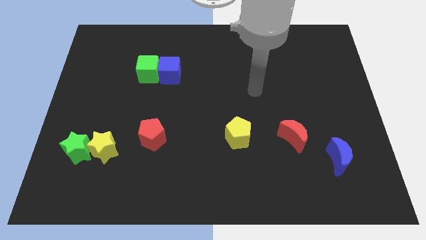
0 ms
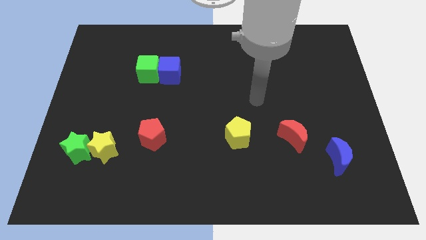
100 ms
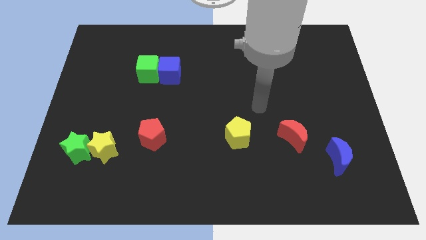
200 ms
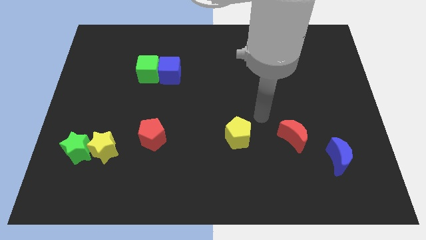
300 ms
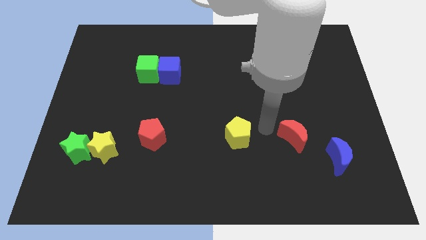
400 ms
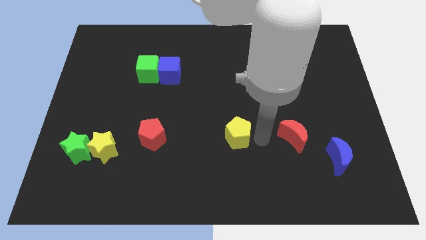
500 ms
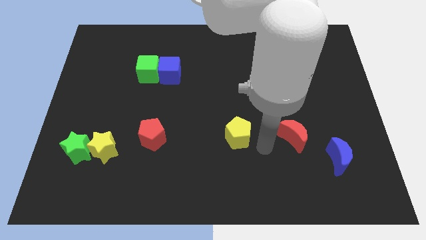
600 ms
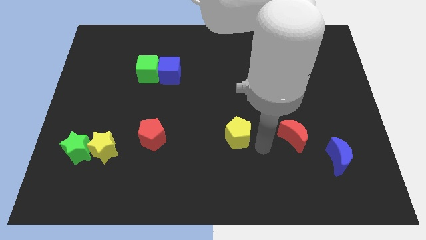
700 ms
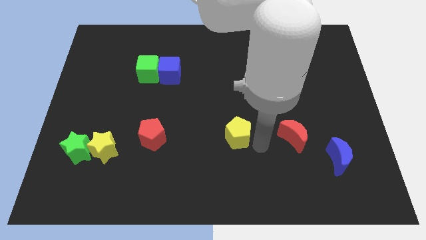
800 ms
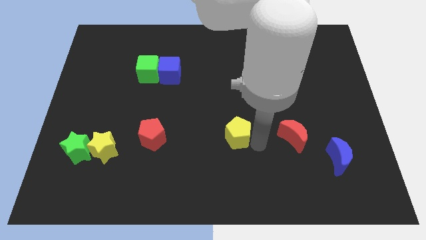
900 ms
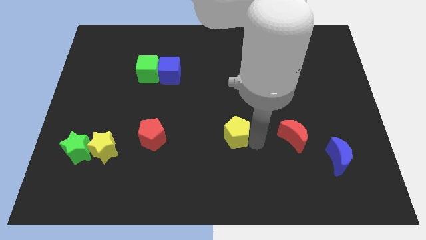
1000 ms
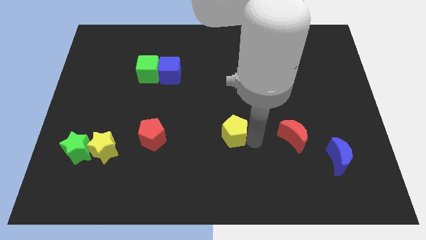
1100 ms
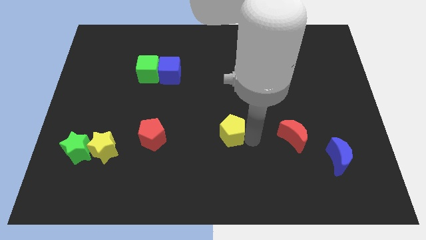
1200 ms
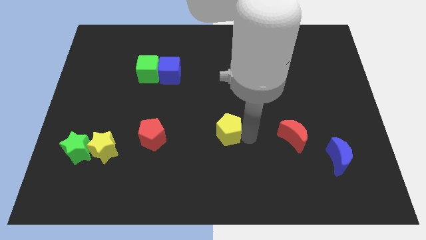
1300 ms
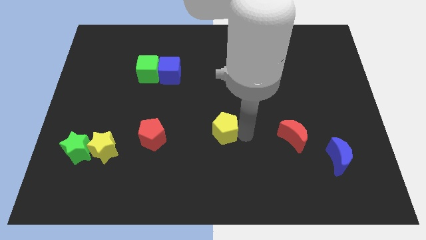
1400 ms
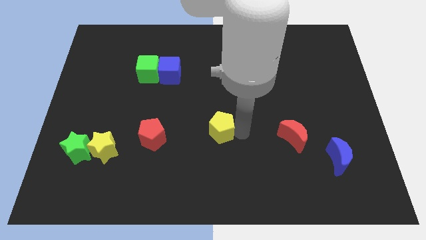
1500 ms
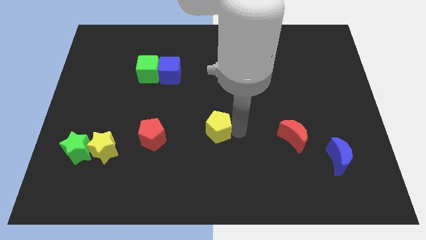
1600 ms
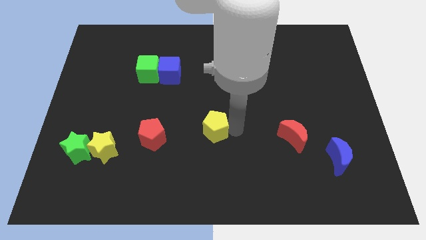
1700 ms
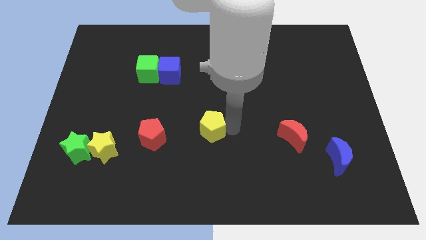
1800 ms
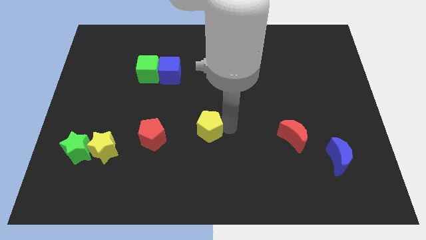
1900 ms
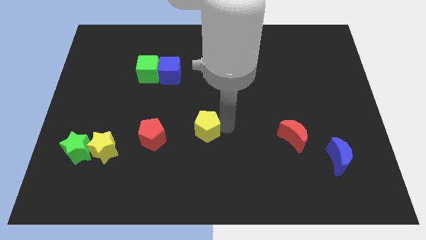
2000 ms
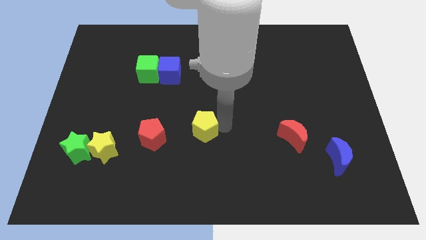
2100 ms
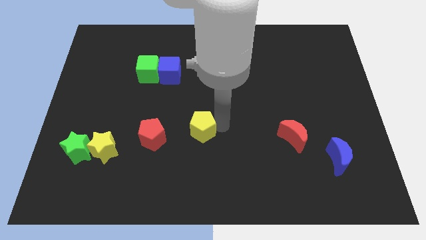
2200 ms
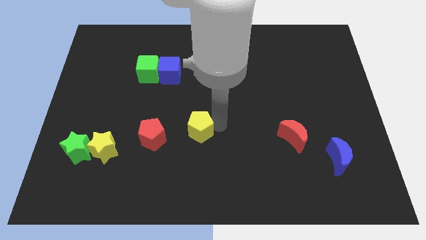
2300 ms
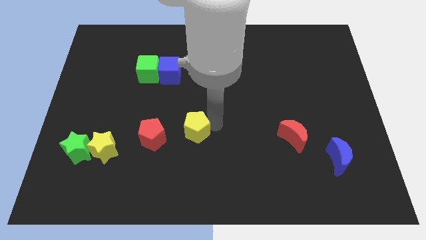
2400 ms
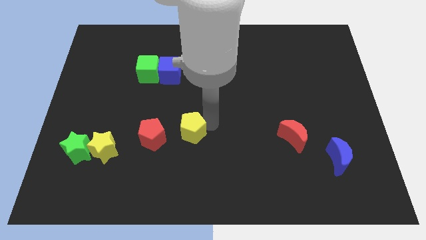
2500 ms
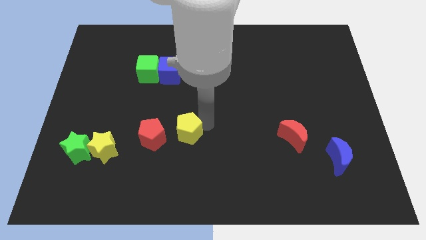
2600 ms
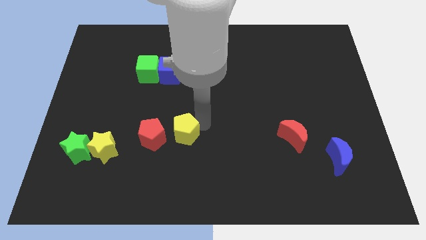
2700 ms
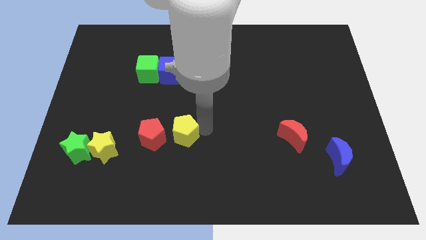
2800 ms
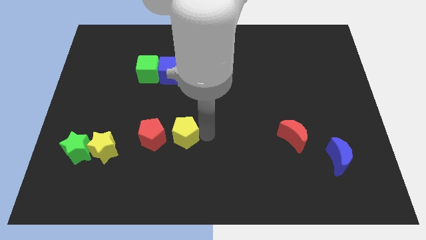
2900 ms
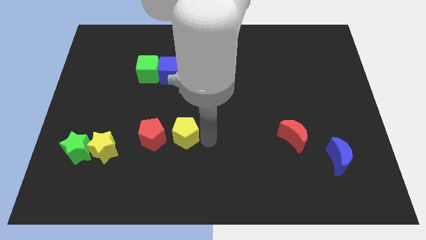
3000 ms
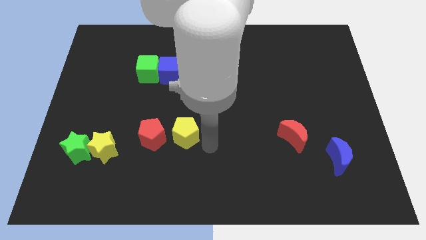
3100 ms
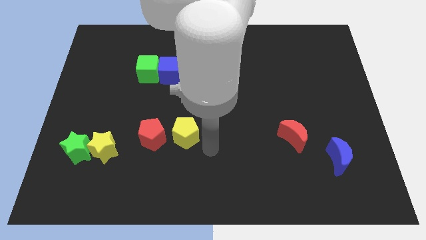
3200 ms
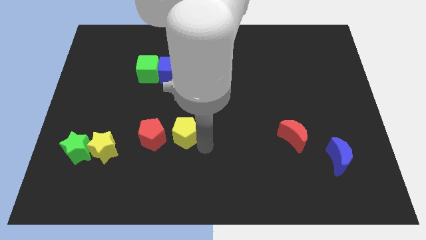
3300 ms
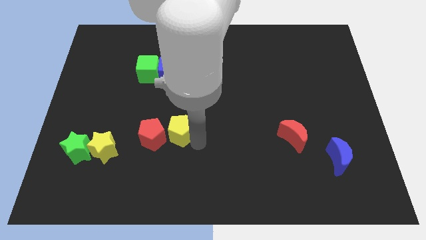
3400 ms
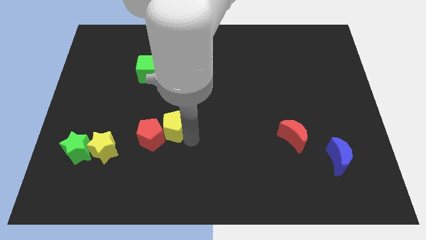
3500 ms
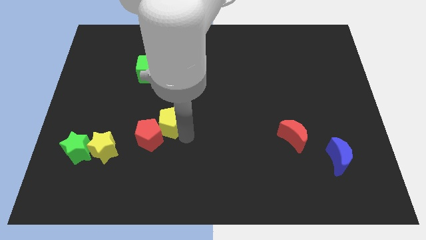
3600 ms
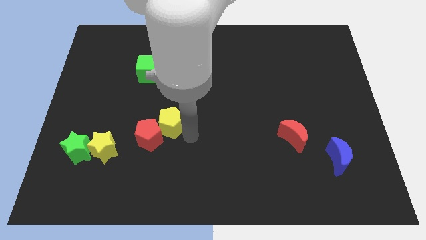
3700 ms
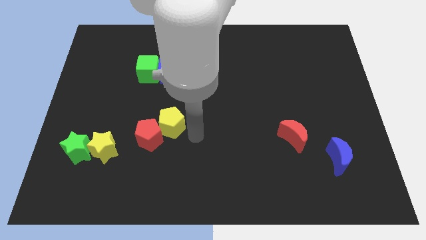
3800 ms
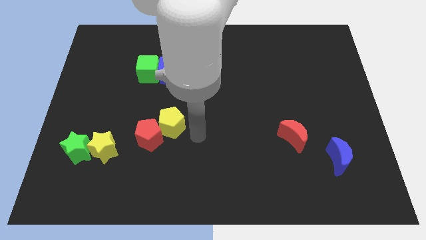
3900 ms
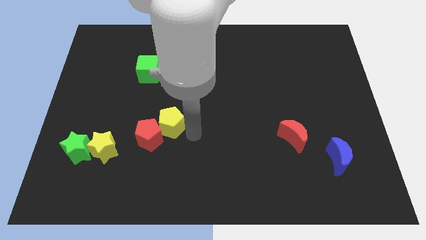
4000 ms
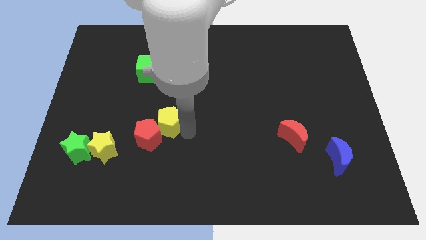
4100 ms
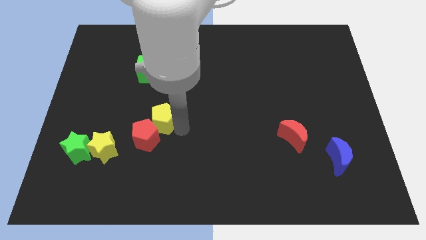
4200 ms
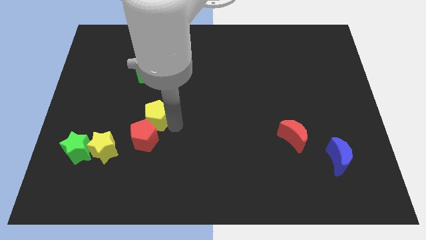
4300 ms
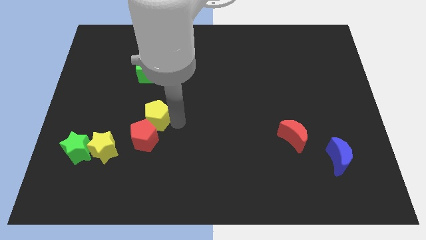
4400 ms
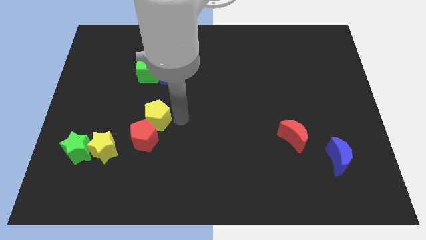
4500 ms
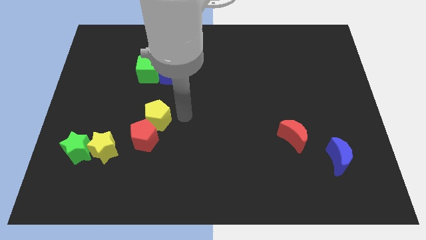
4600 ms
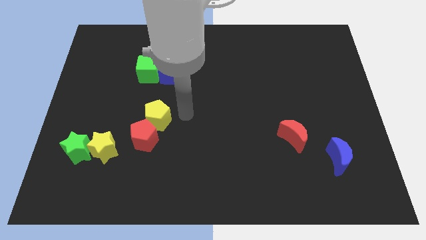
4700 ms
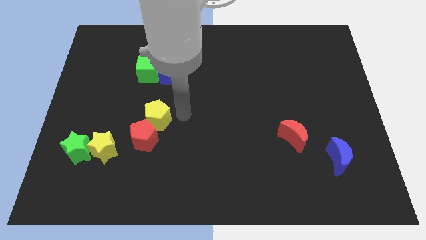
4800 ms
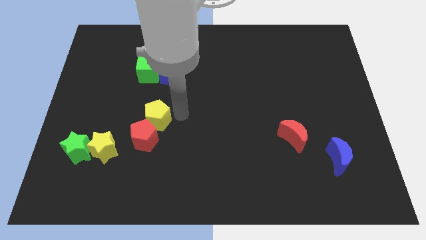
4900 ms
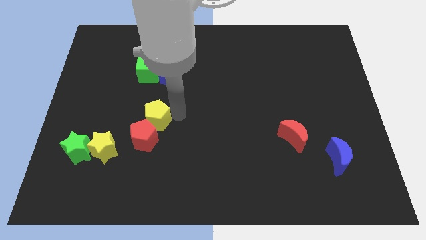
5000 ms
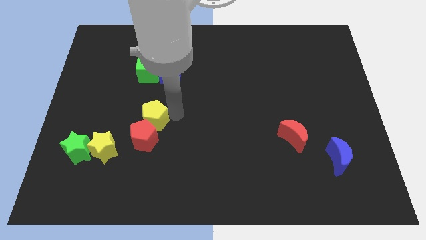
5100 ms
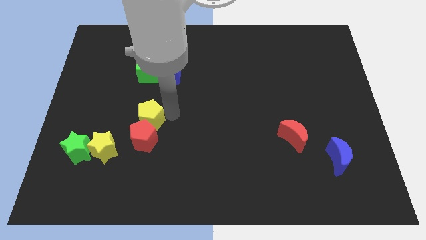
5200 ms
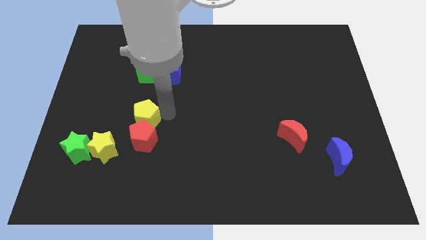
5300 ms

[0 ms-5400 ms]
push the yellow pentagon left

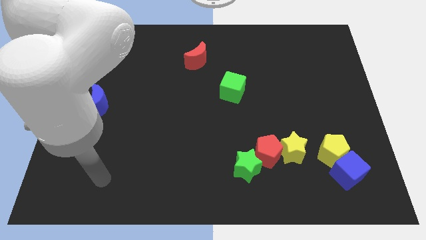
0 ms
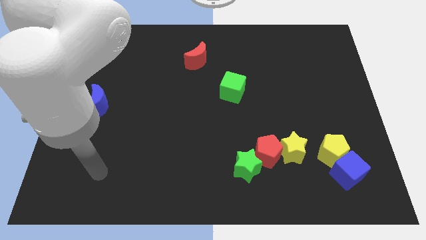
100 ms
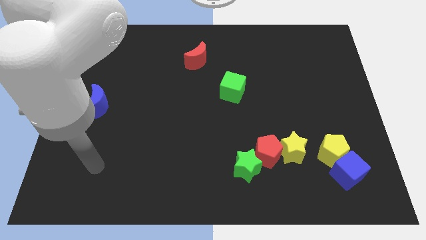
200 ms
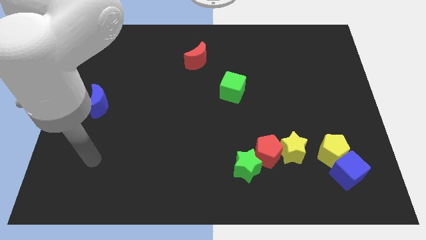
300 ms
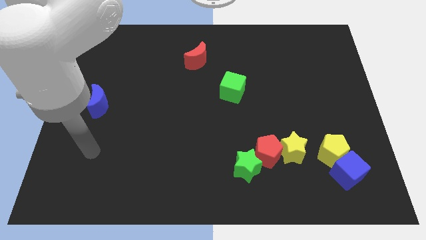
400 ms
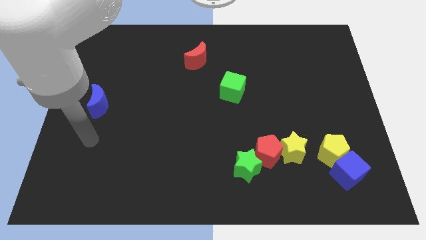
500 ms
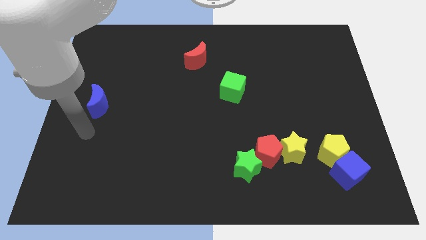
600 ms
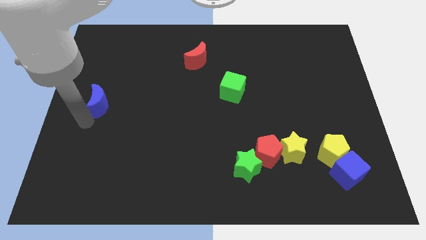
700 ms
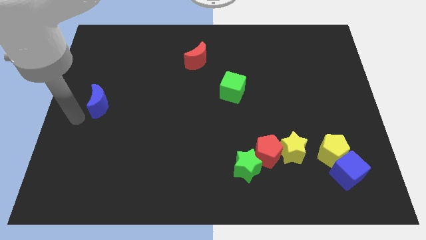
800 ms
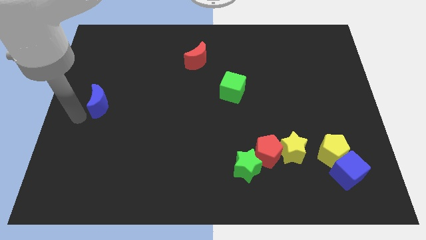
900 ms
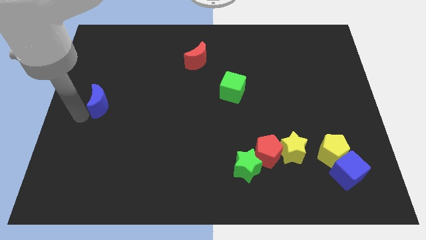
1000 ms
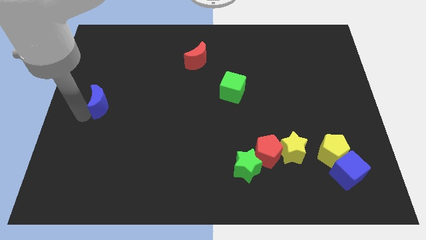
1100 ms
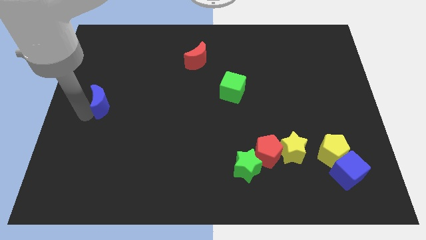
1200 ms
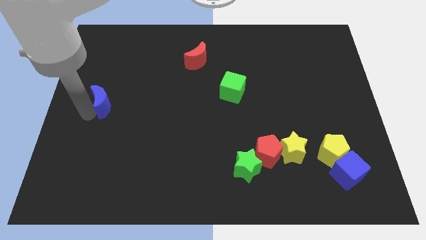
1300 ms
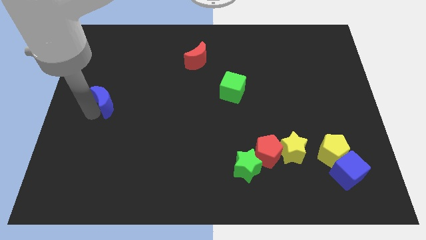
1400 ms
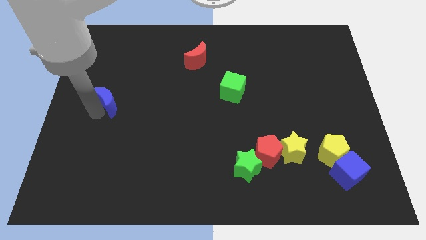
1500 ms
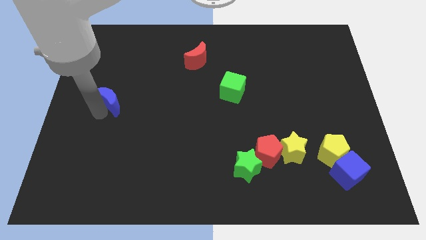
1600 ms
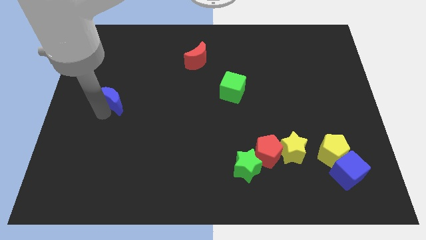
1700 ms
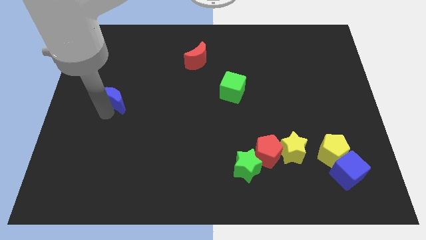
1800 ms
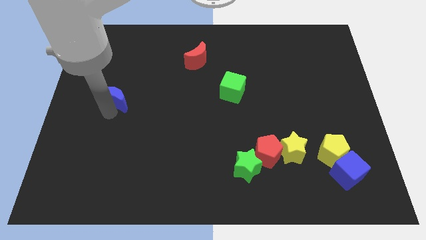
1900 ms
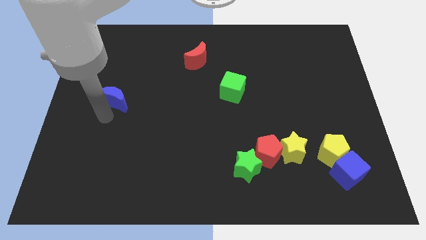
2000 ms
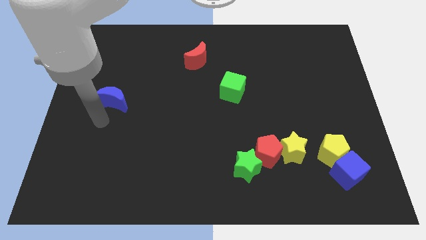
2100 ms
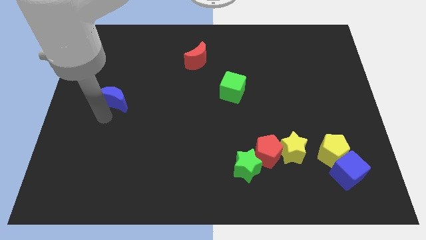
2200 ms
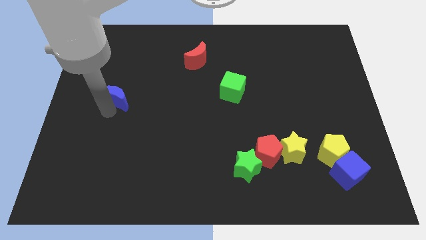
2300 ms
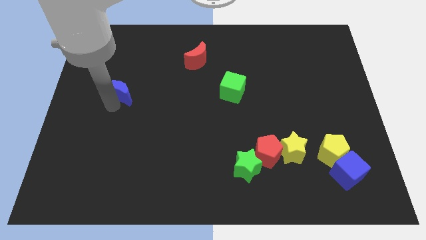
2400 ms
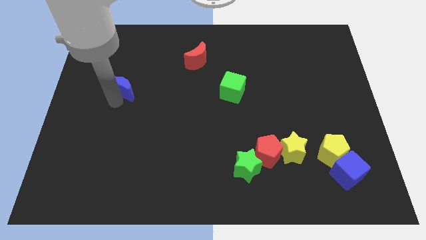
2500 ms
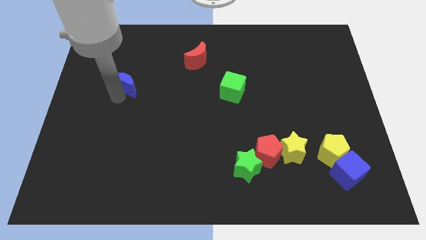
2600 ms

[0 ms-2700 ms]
slightly slide the blue moon upwards and right
